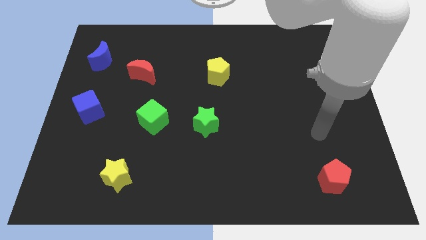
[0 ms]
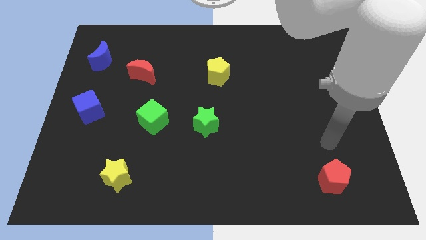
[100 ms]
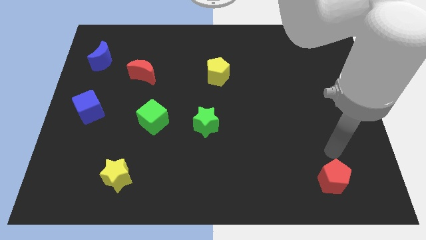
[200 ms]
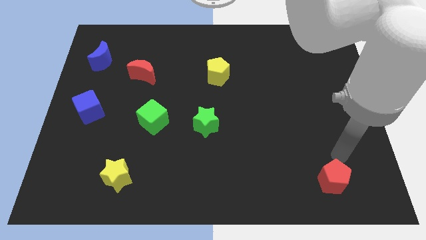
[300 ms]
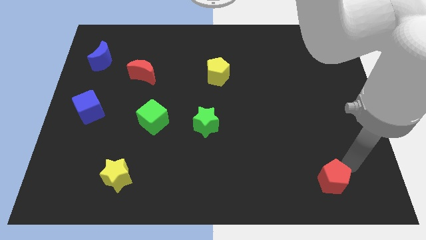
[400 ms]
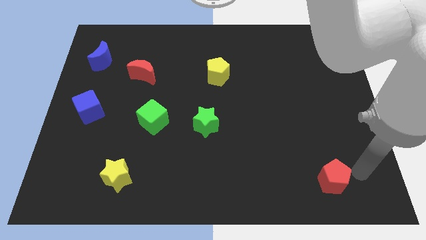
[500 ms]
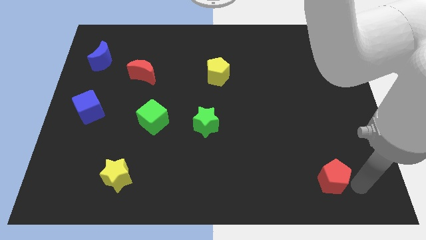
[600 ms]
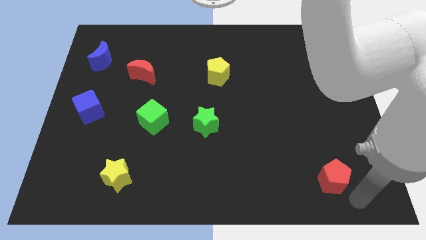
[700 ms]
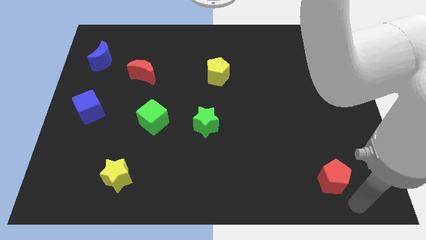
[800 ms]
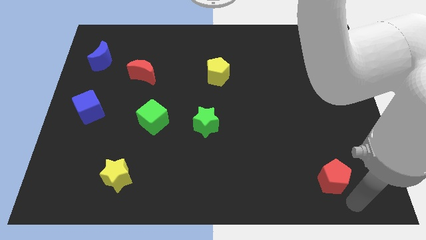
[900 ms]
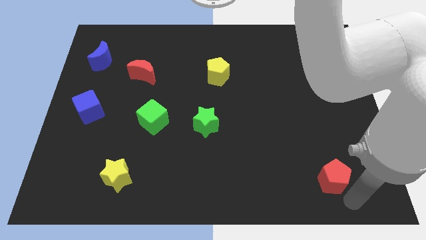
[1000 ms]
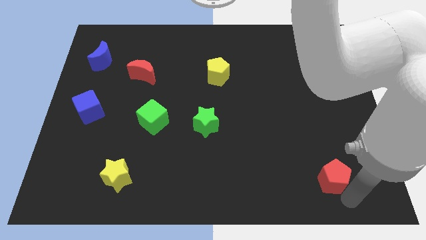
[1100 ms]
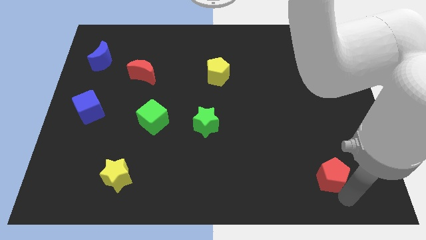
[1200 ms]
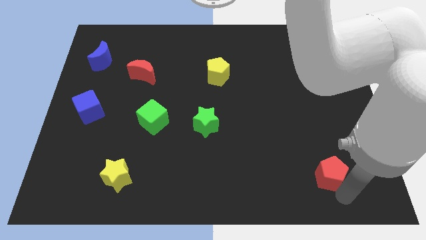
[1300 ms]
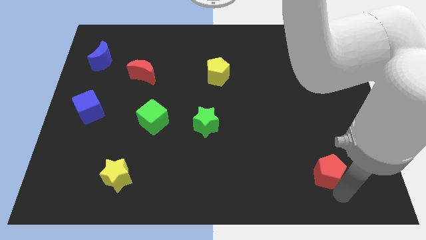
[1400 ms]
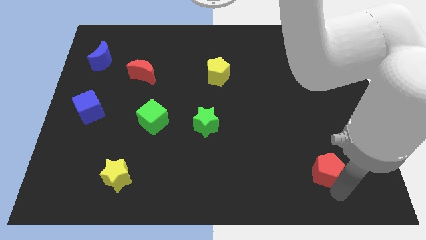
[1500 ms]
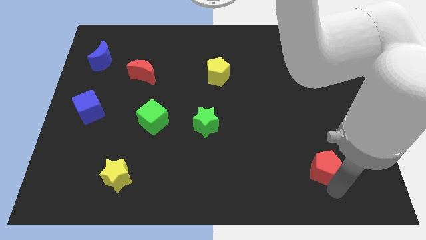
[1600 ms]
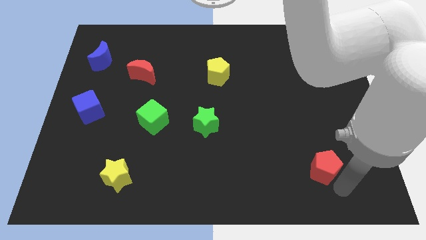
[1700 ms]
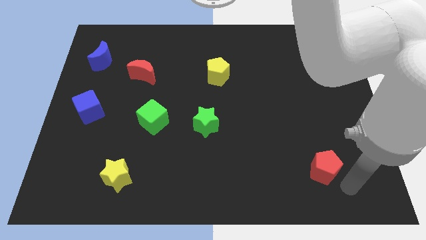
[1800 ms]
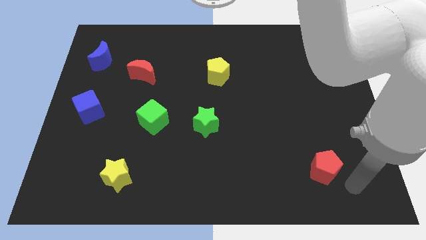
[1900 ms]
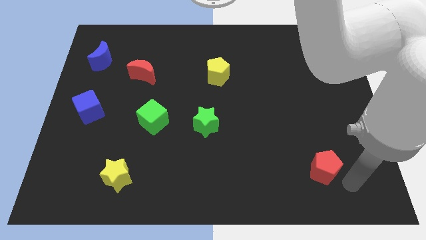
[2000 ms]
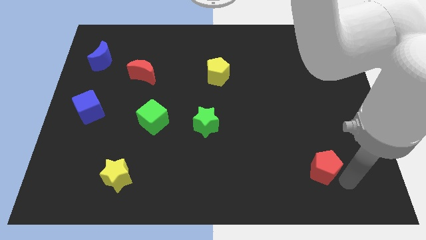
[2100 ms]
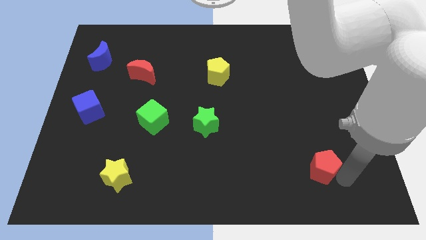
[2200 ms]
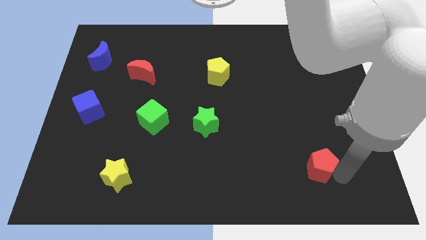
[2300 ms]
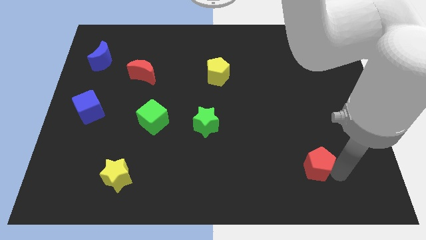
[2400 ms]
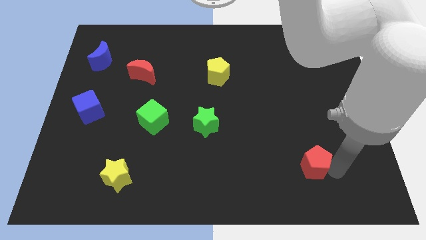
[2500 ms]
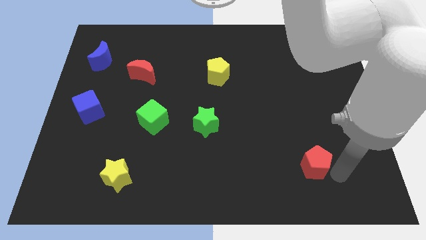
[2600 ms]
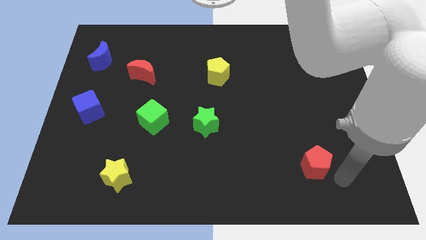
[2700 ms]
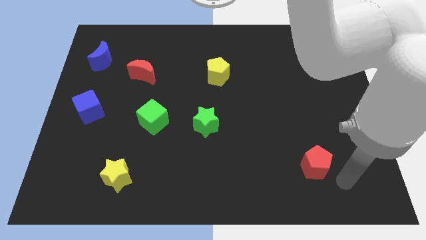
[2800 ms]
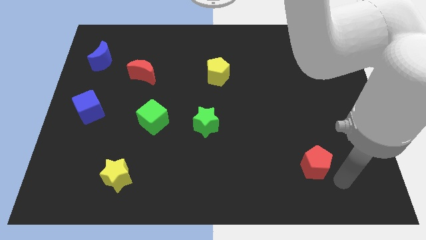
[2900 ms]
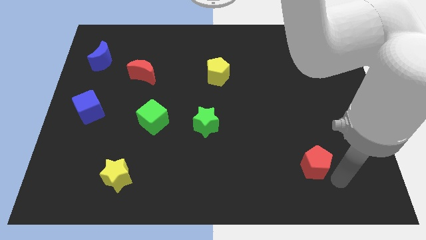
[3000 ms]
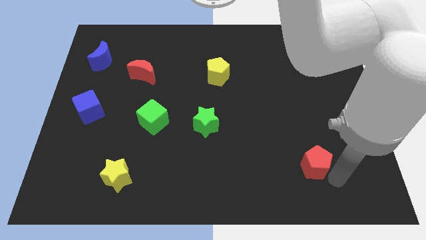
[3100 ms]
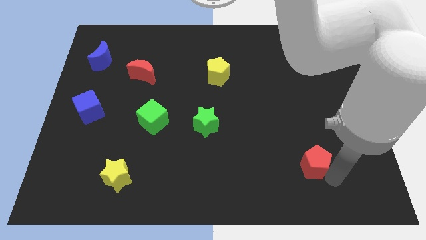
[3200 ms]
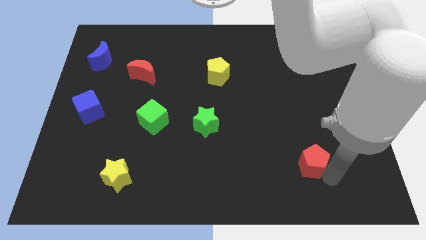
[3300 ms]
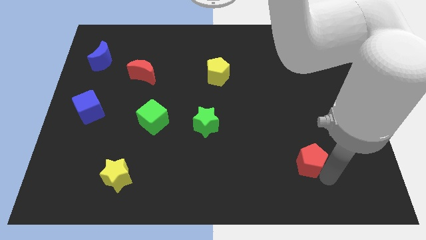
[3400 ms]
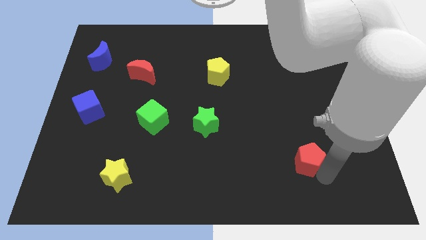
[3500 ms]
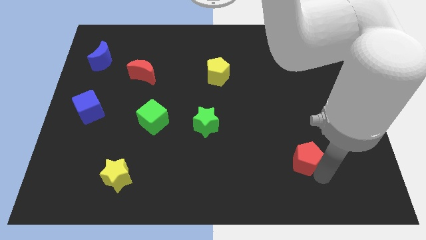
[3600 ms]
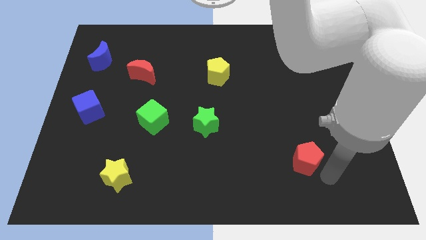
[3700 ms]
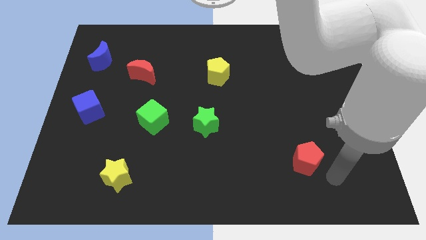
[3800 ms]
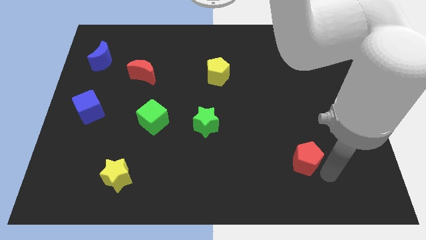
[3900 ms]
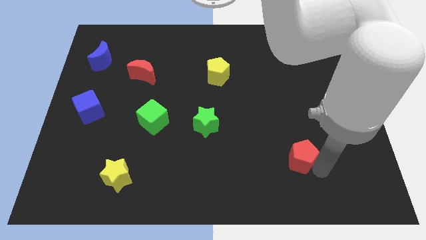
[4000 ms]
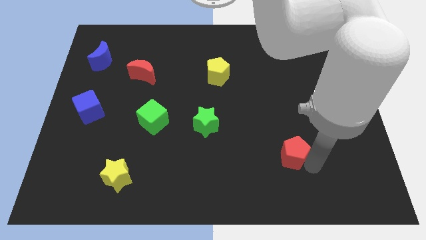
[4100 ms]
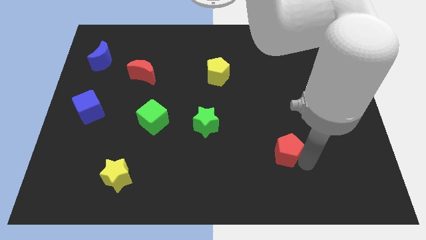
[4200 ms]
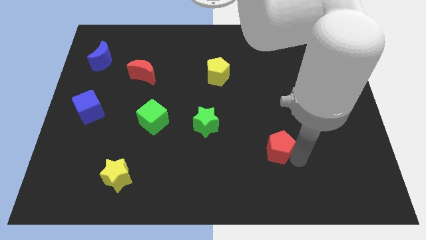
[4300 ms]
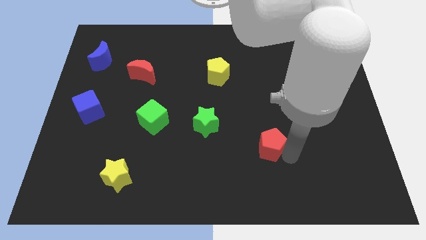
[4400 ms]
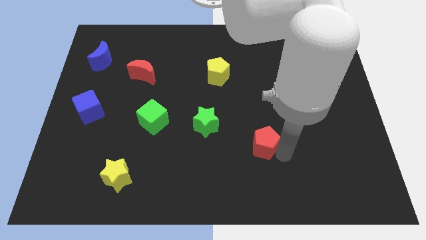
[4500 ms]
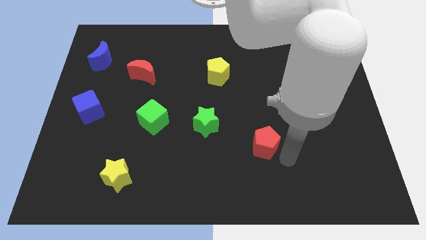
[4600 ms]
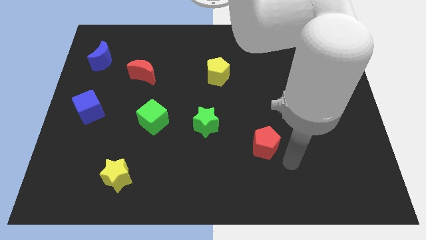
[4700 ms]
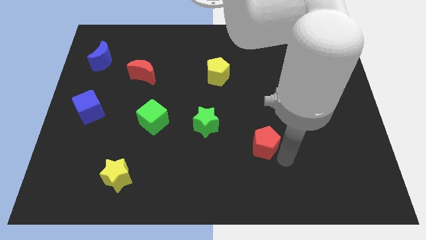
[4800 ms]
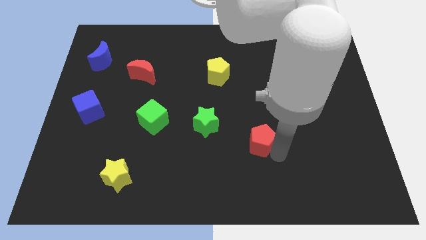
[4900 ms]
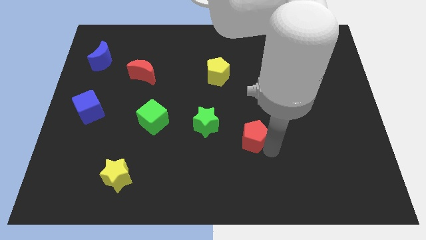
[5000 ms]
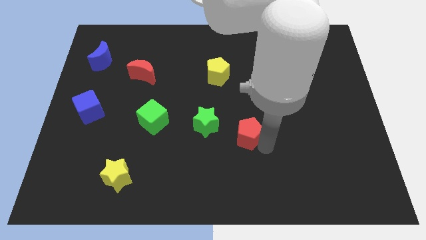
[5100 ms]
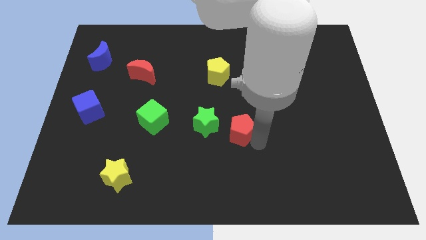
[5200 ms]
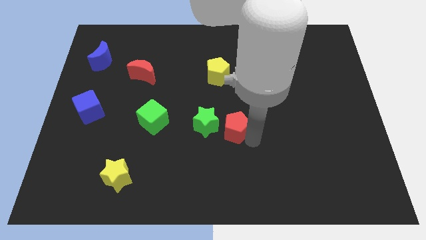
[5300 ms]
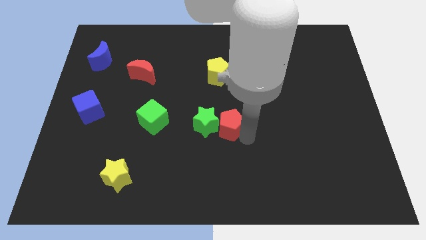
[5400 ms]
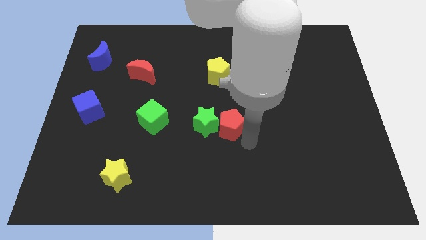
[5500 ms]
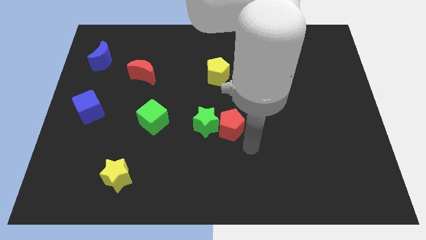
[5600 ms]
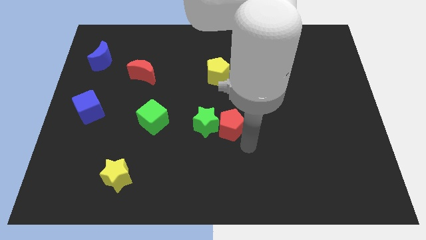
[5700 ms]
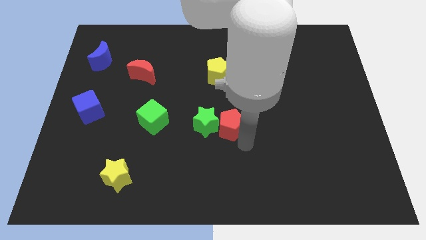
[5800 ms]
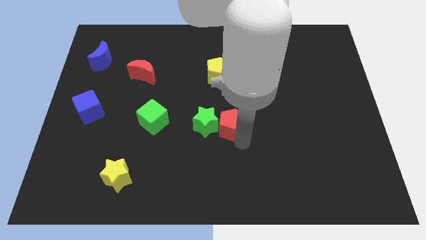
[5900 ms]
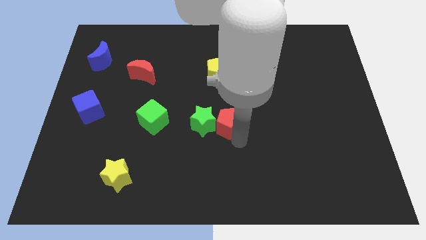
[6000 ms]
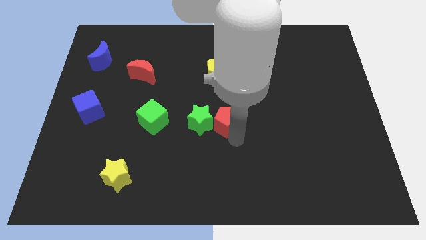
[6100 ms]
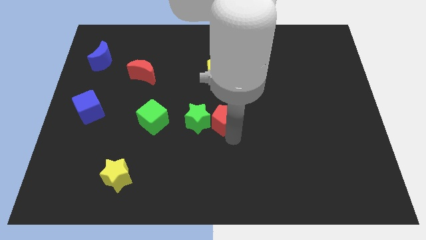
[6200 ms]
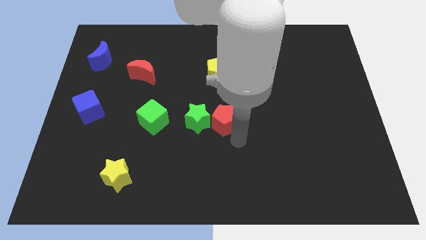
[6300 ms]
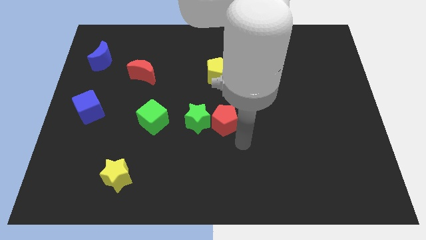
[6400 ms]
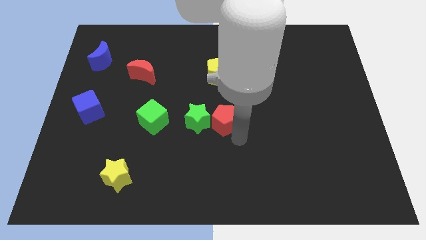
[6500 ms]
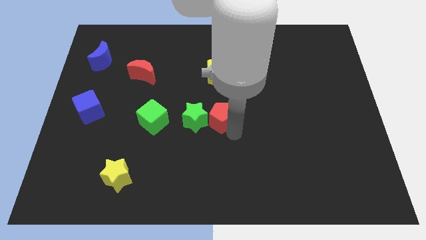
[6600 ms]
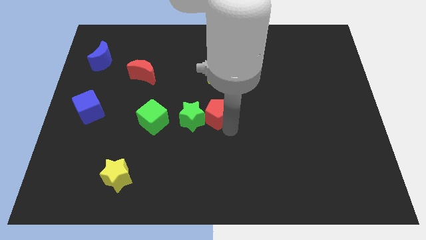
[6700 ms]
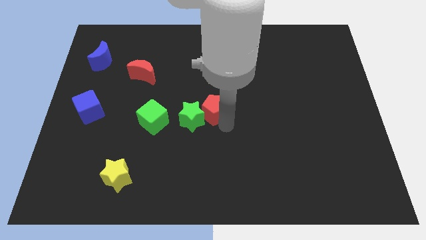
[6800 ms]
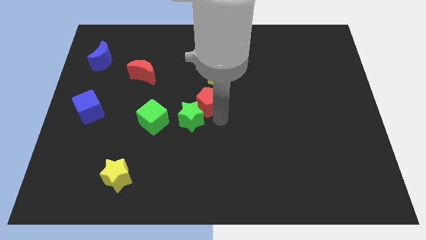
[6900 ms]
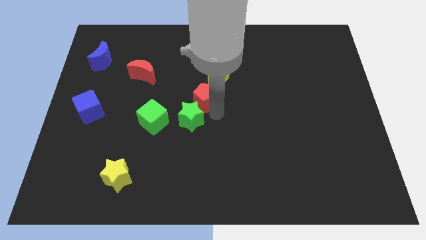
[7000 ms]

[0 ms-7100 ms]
put the red pentagon to the bottom left of the yellow pentagon
